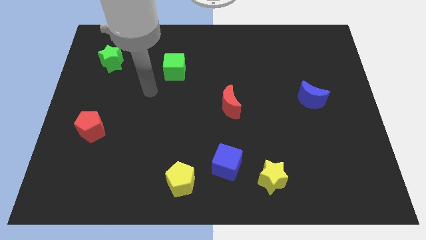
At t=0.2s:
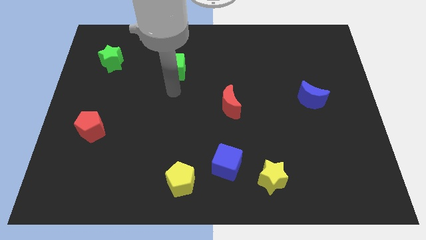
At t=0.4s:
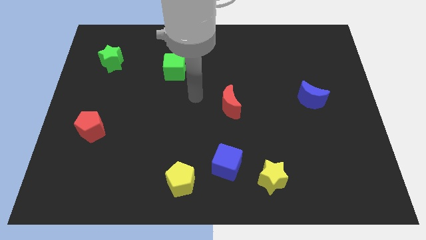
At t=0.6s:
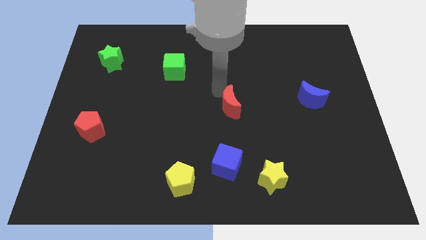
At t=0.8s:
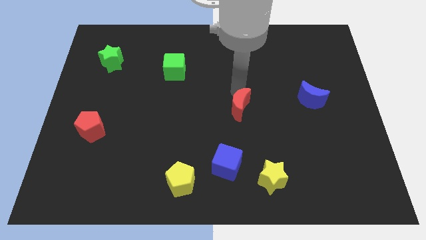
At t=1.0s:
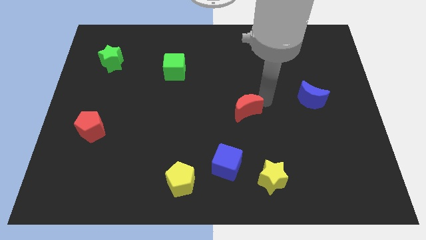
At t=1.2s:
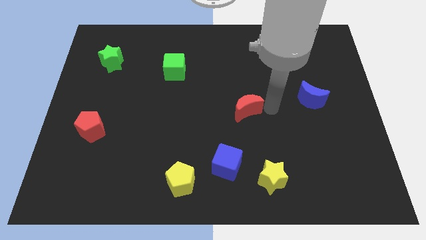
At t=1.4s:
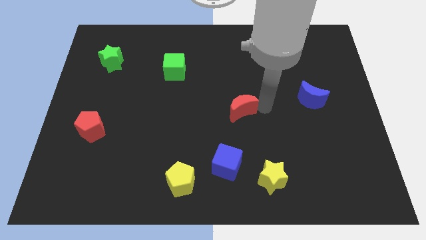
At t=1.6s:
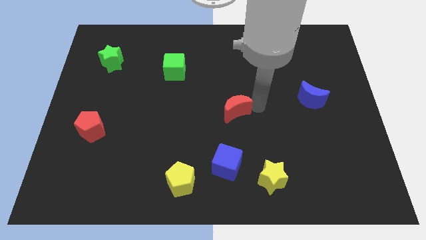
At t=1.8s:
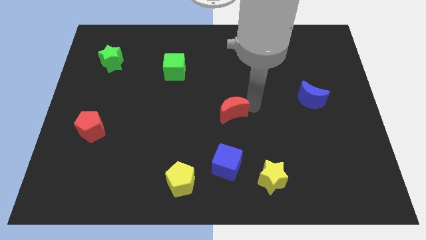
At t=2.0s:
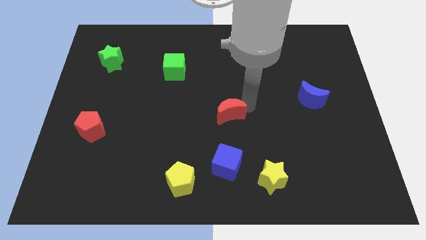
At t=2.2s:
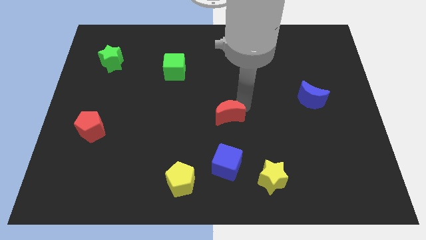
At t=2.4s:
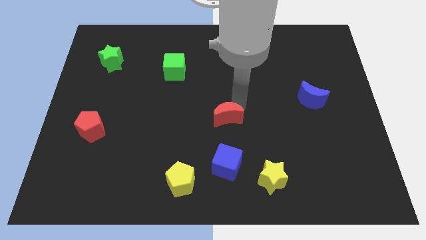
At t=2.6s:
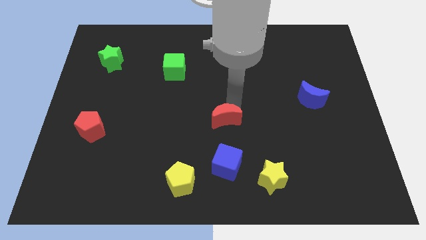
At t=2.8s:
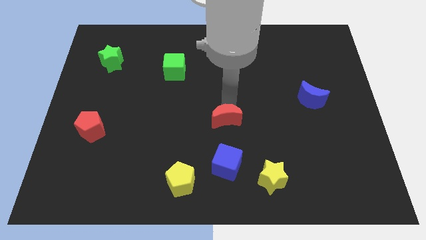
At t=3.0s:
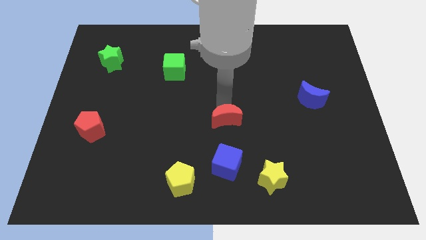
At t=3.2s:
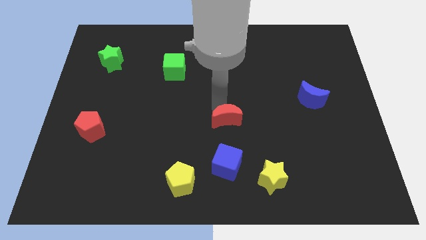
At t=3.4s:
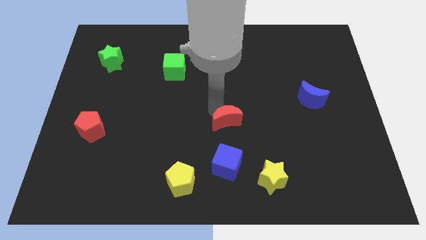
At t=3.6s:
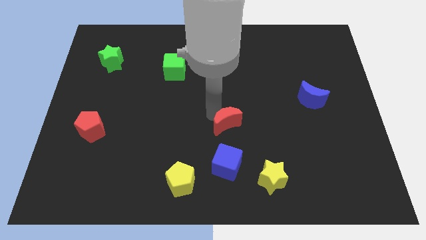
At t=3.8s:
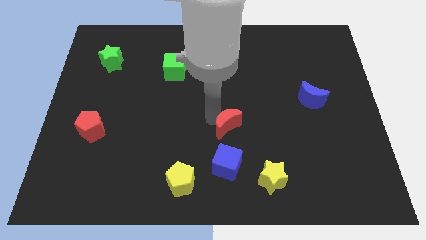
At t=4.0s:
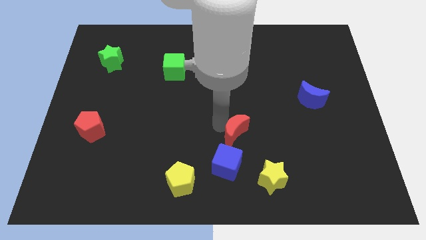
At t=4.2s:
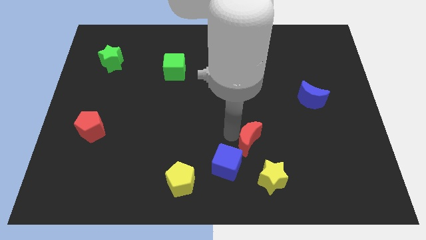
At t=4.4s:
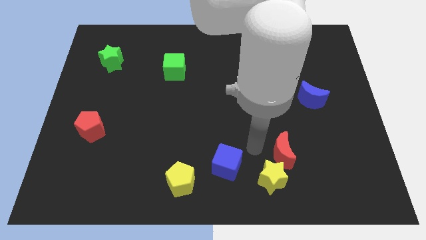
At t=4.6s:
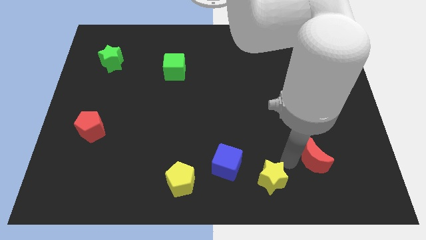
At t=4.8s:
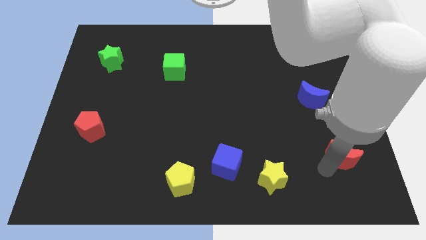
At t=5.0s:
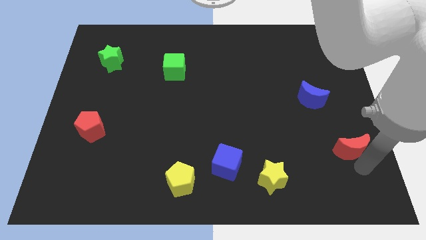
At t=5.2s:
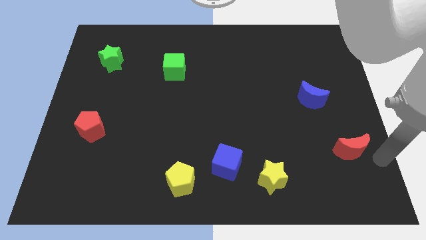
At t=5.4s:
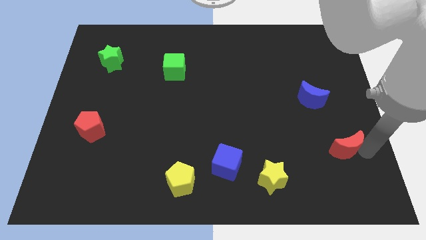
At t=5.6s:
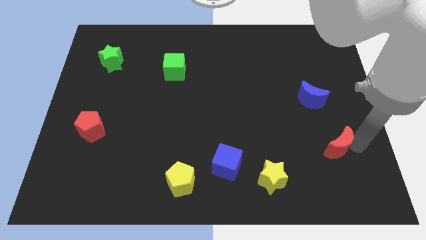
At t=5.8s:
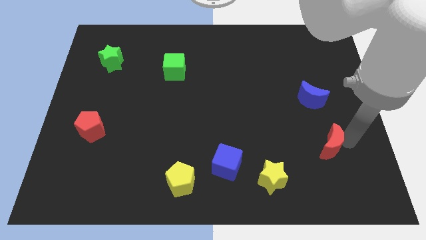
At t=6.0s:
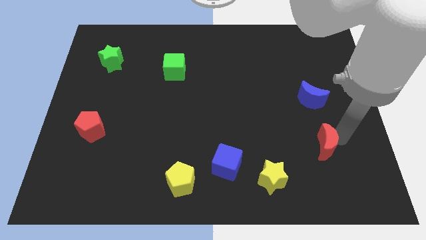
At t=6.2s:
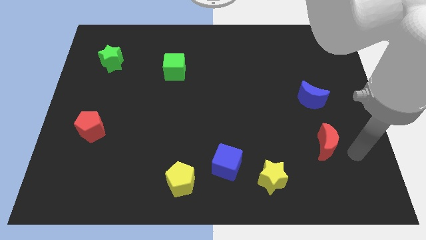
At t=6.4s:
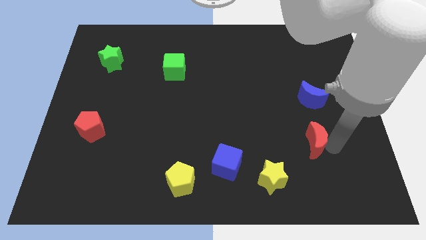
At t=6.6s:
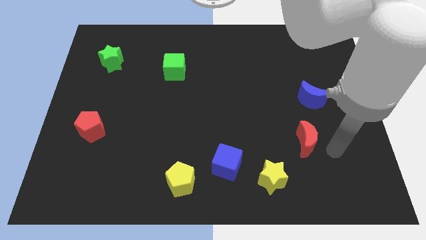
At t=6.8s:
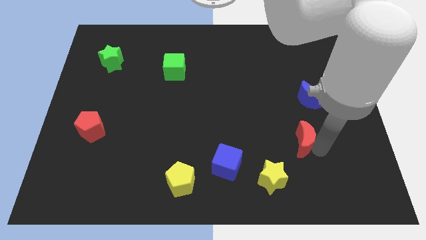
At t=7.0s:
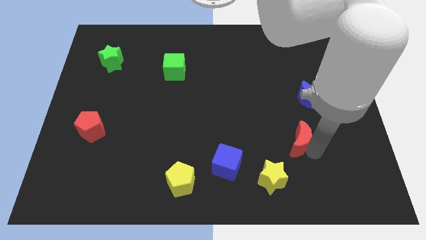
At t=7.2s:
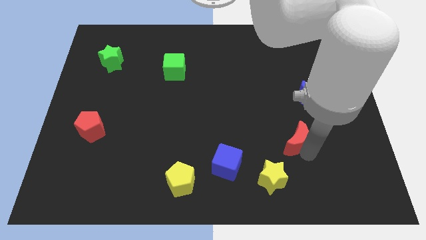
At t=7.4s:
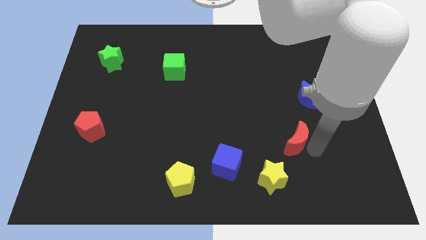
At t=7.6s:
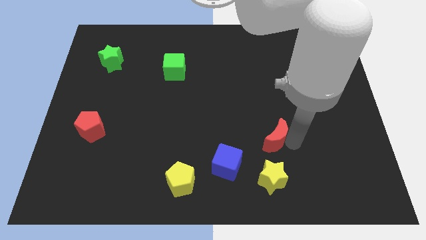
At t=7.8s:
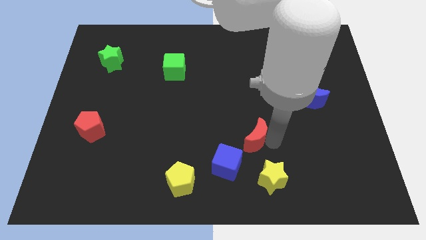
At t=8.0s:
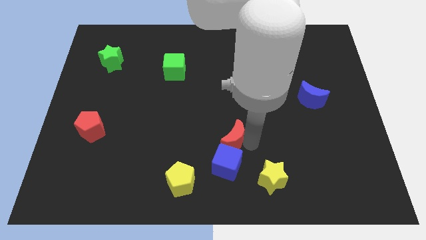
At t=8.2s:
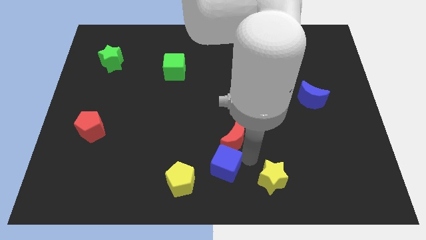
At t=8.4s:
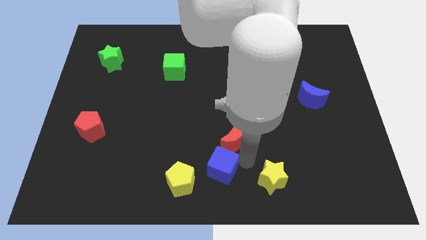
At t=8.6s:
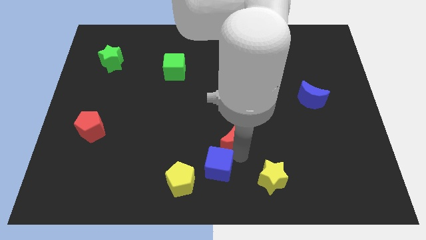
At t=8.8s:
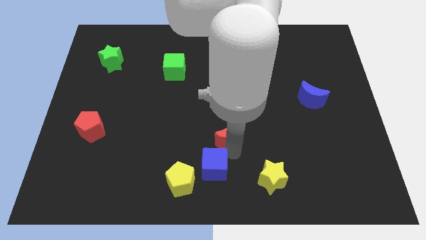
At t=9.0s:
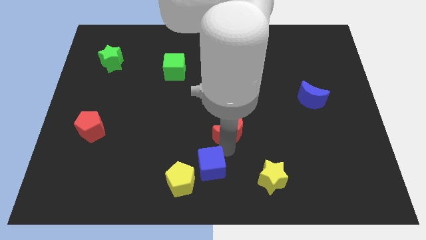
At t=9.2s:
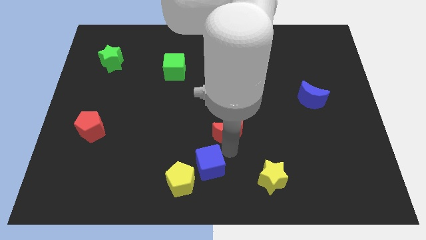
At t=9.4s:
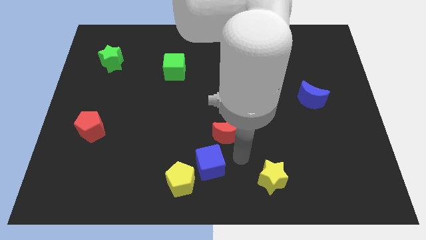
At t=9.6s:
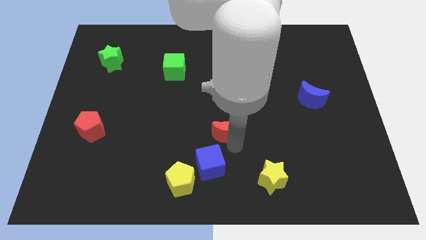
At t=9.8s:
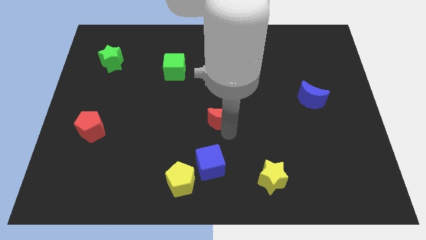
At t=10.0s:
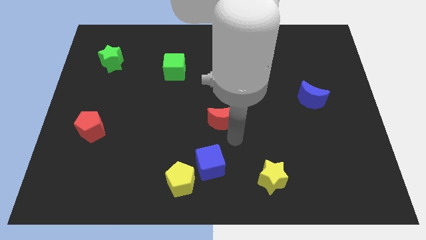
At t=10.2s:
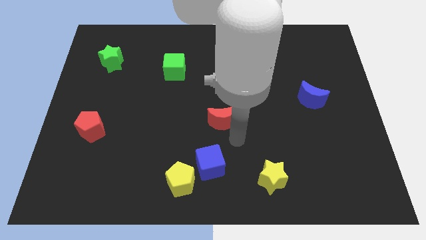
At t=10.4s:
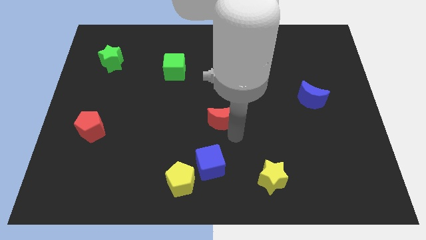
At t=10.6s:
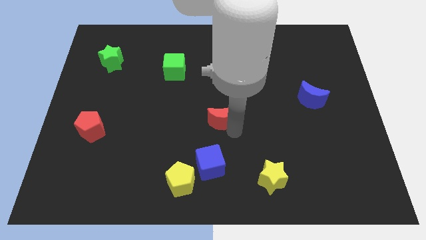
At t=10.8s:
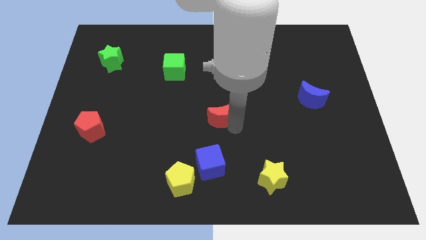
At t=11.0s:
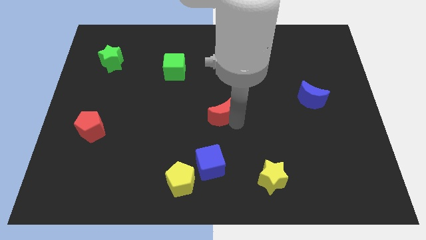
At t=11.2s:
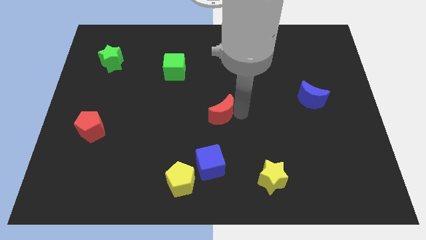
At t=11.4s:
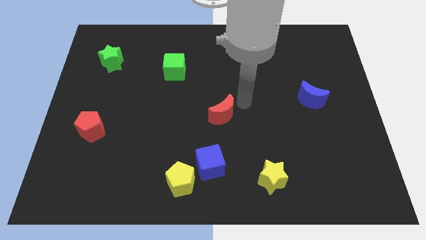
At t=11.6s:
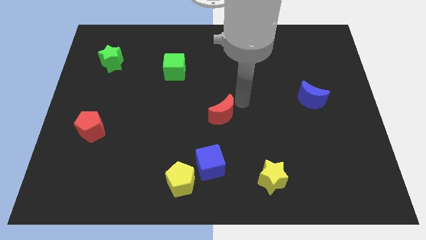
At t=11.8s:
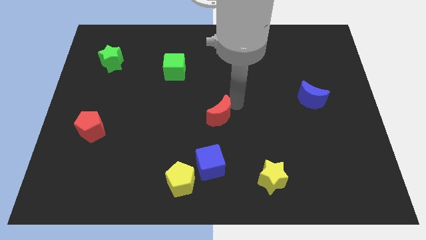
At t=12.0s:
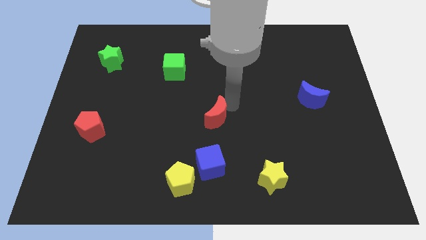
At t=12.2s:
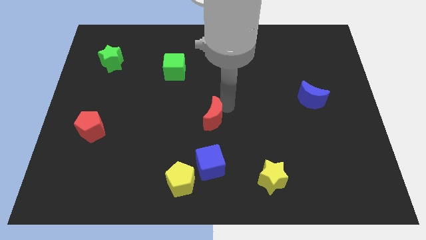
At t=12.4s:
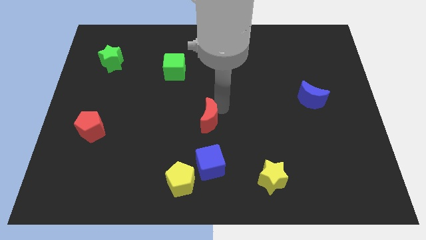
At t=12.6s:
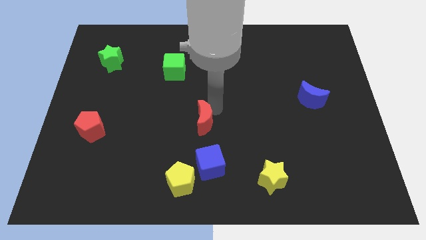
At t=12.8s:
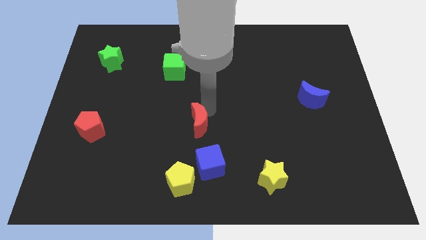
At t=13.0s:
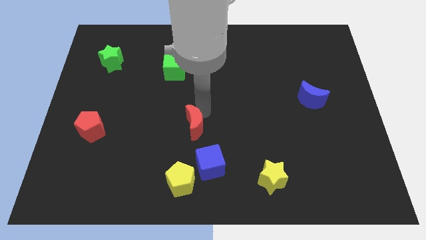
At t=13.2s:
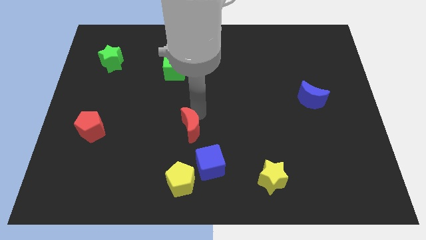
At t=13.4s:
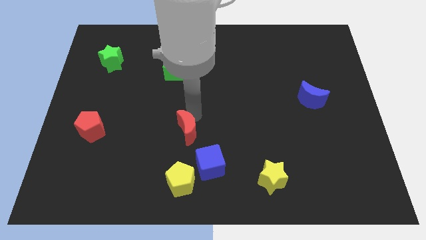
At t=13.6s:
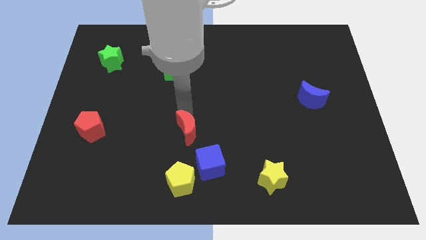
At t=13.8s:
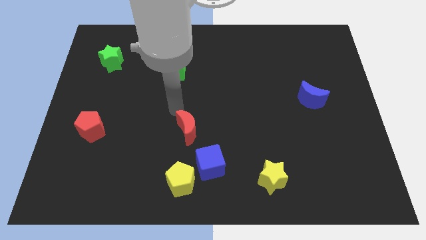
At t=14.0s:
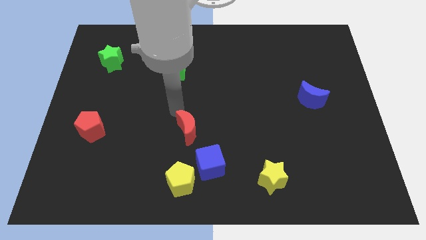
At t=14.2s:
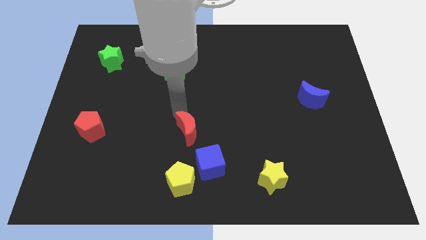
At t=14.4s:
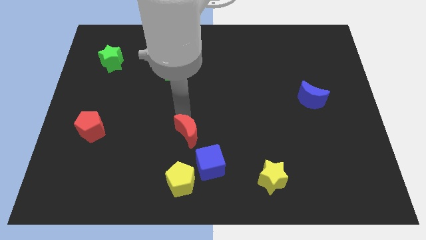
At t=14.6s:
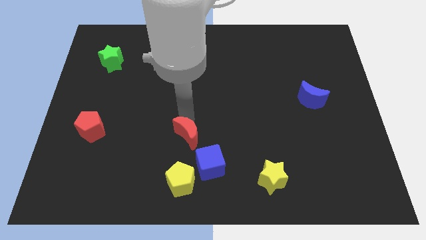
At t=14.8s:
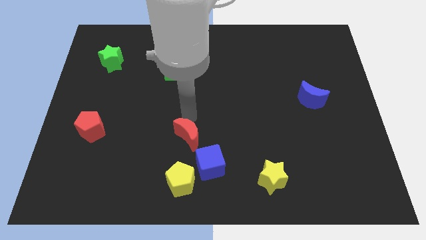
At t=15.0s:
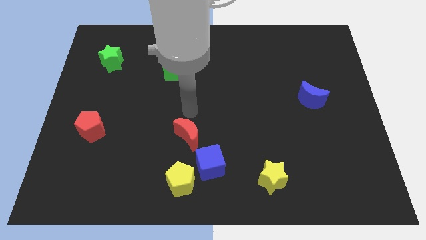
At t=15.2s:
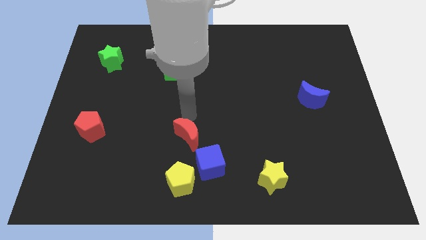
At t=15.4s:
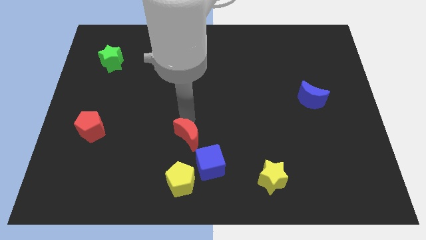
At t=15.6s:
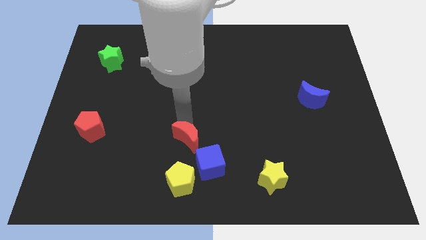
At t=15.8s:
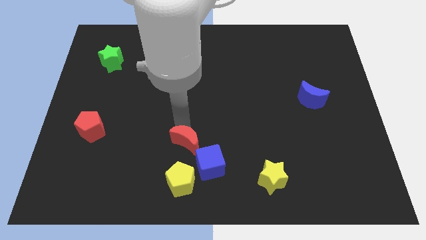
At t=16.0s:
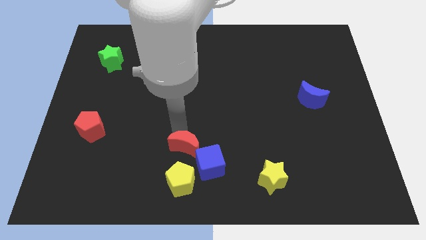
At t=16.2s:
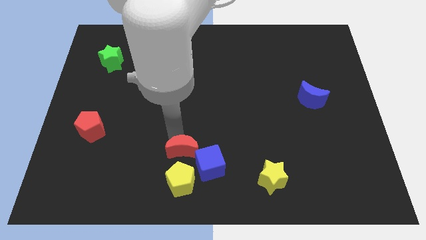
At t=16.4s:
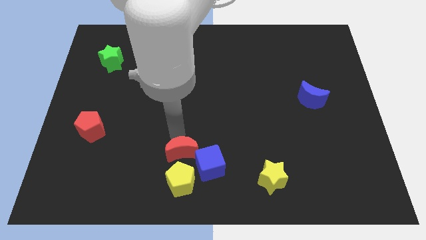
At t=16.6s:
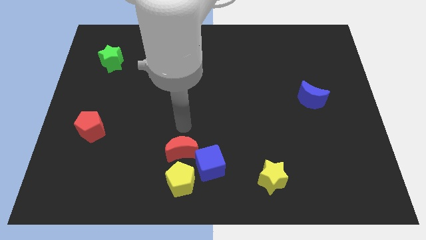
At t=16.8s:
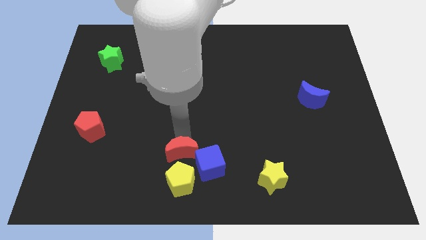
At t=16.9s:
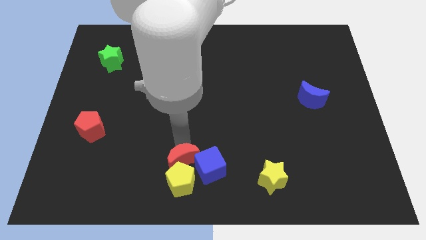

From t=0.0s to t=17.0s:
move the red moon close to the yellow pentagon
